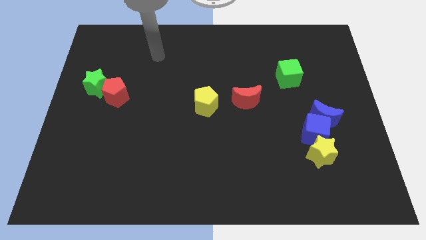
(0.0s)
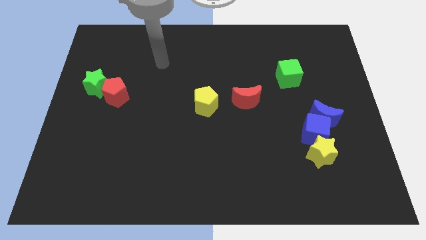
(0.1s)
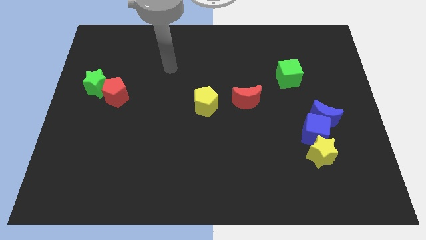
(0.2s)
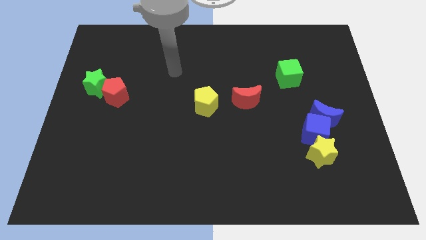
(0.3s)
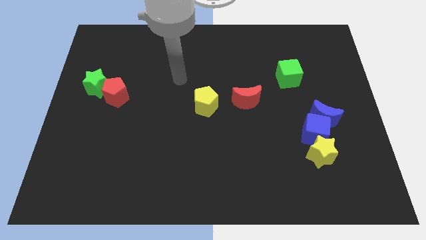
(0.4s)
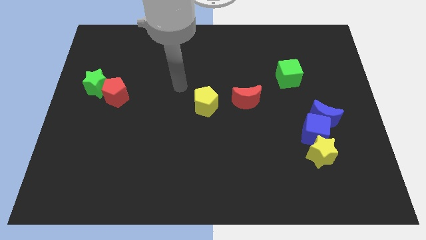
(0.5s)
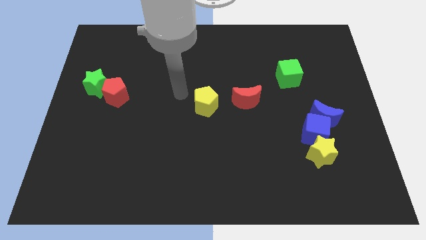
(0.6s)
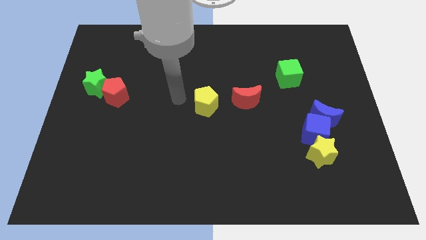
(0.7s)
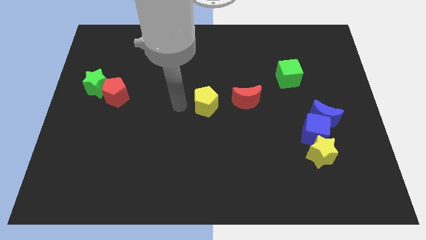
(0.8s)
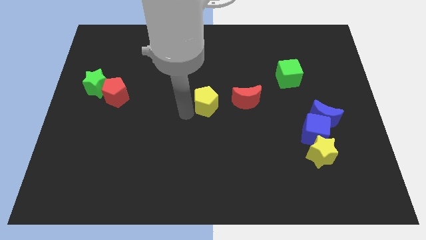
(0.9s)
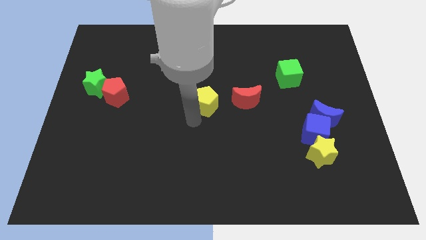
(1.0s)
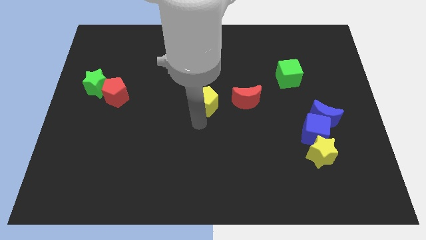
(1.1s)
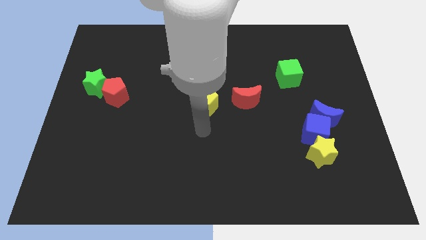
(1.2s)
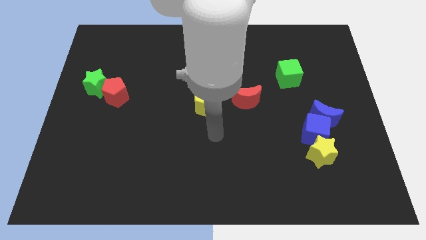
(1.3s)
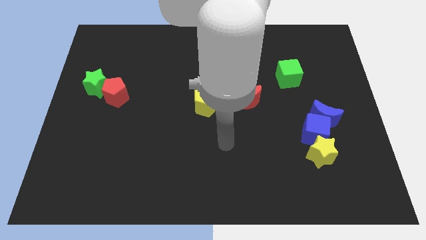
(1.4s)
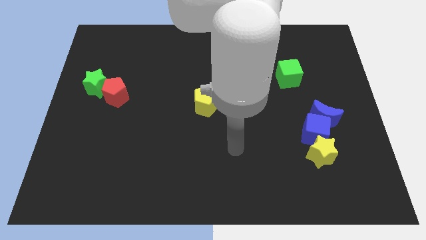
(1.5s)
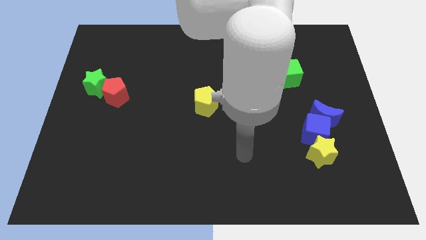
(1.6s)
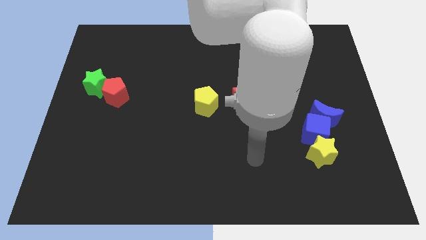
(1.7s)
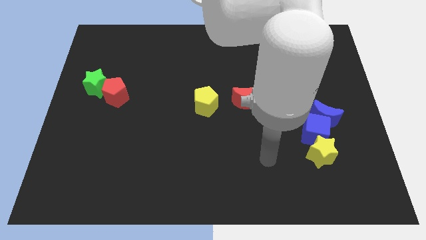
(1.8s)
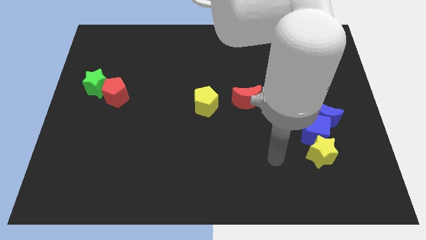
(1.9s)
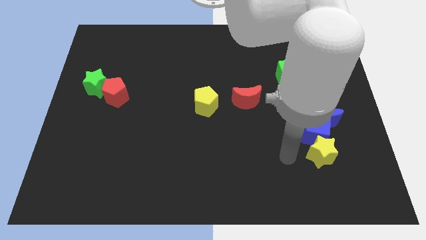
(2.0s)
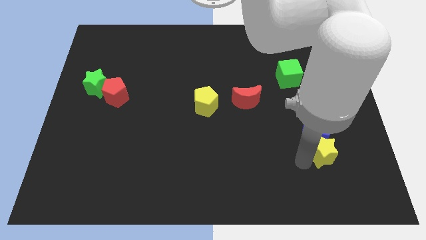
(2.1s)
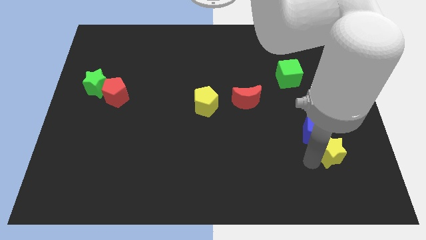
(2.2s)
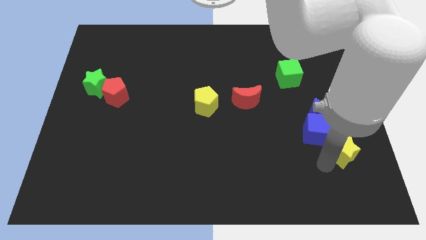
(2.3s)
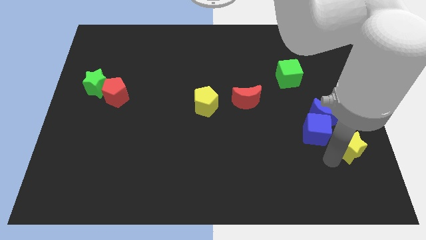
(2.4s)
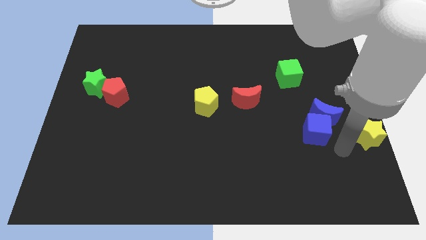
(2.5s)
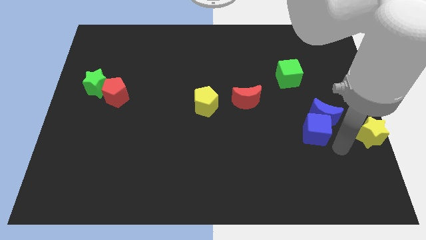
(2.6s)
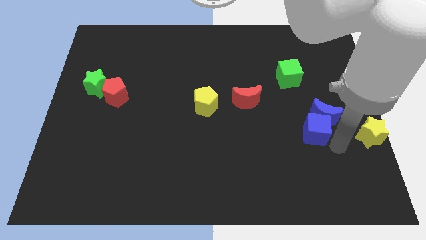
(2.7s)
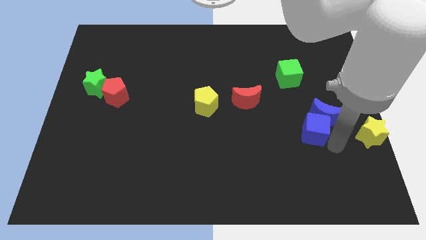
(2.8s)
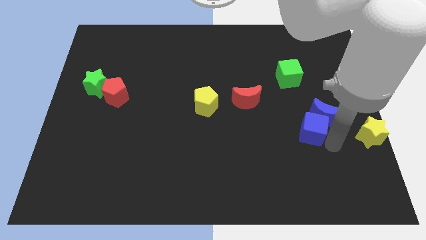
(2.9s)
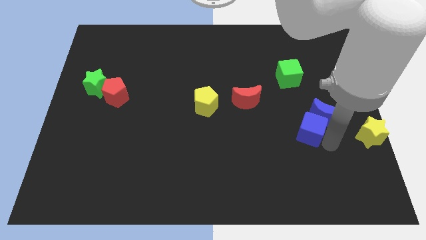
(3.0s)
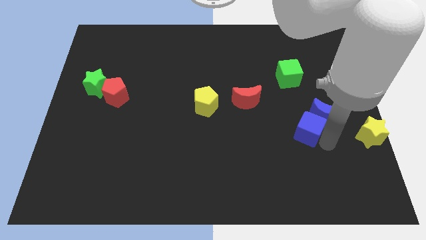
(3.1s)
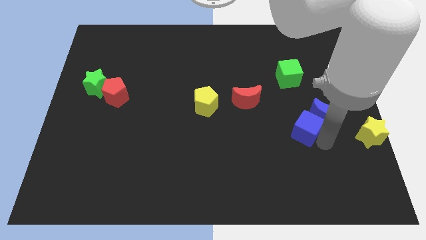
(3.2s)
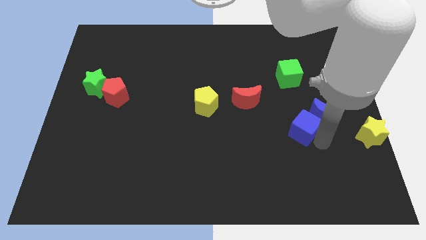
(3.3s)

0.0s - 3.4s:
separate the blue cube from the blue moon and yellow star

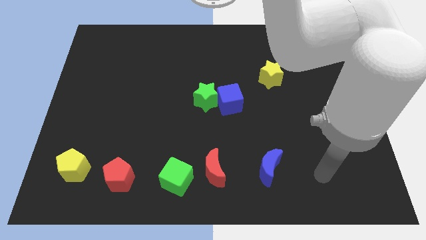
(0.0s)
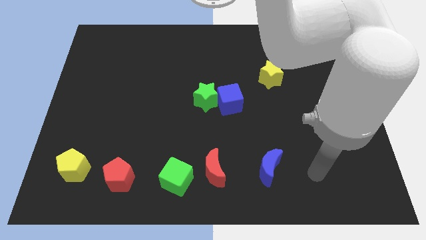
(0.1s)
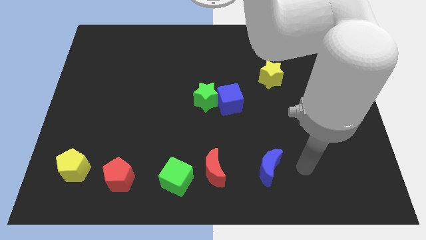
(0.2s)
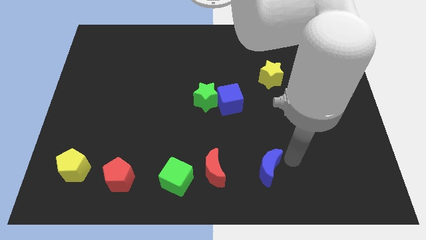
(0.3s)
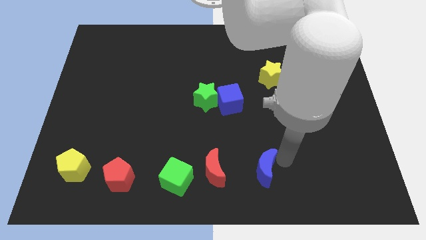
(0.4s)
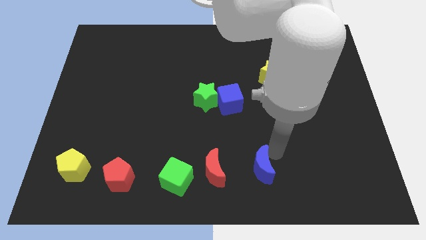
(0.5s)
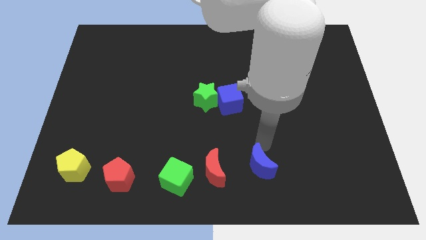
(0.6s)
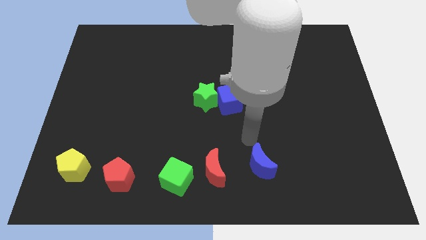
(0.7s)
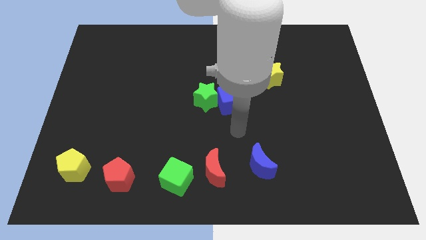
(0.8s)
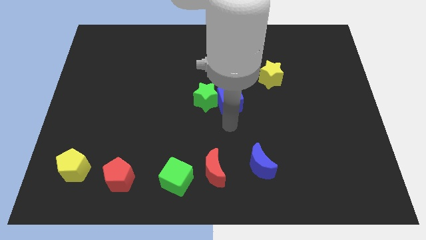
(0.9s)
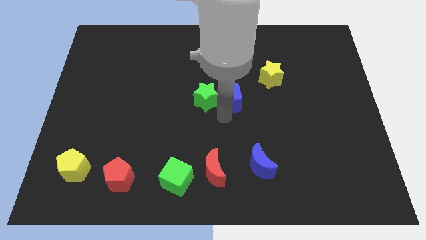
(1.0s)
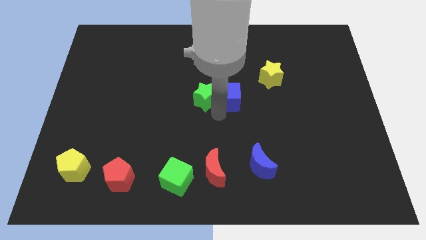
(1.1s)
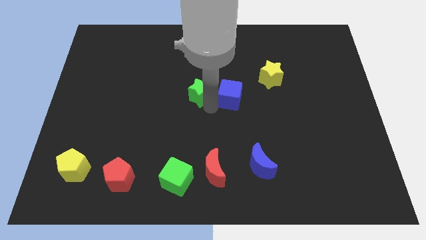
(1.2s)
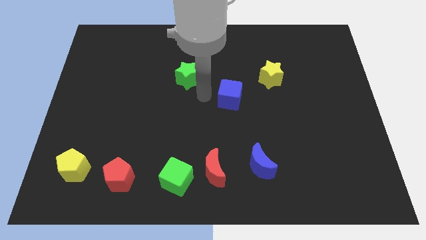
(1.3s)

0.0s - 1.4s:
pull the blue cube apart from the green star

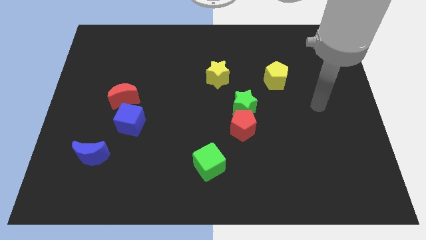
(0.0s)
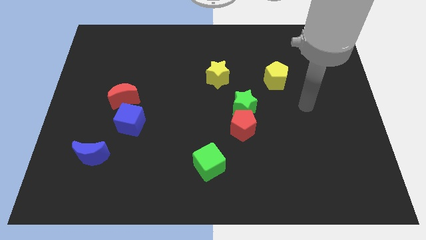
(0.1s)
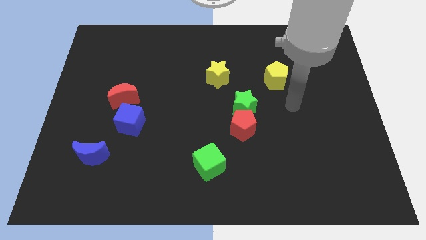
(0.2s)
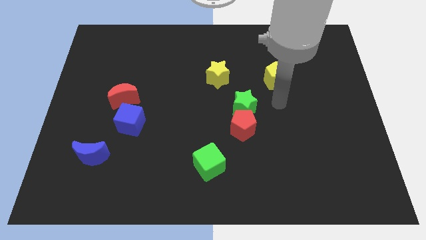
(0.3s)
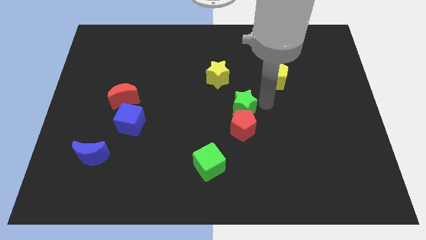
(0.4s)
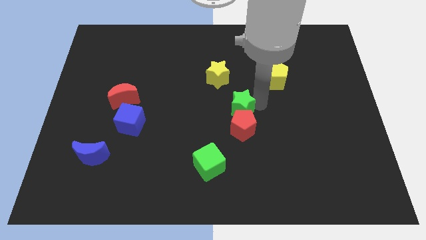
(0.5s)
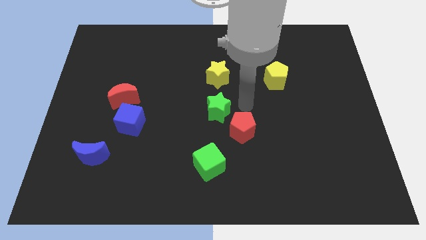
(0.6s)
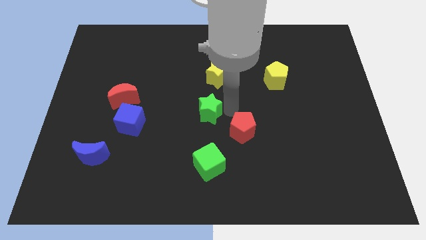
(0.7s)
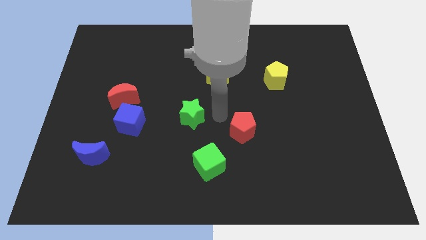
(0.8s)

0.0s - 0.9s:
pull the red pentagon apart from the green star

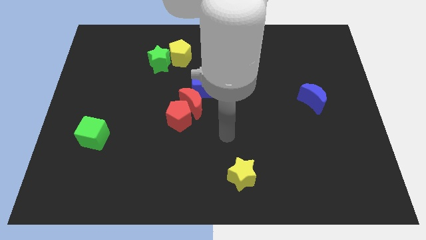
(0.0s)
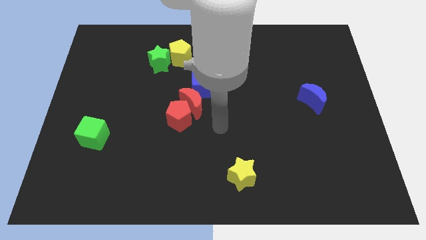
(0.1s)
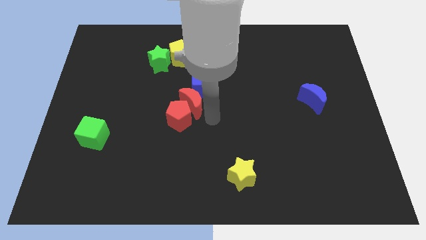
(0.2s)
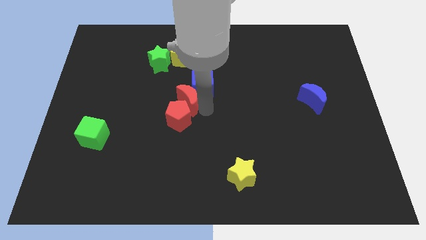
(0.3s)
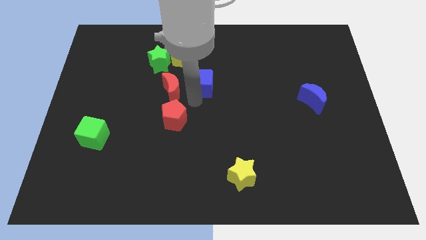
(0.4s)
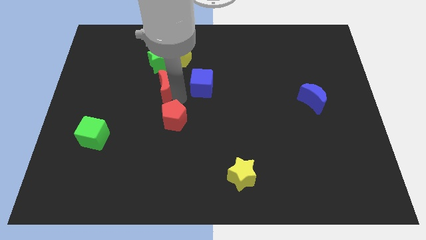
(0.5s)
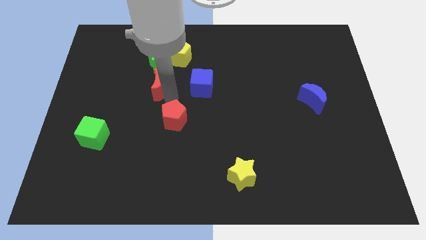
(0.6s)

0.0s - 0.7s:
separate the red pentagon from the red moon

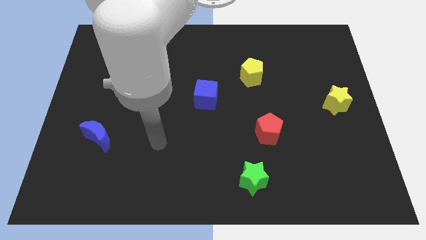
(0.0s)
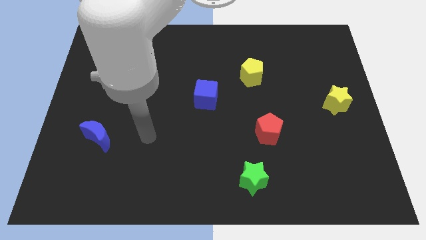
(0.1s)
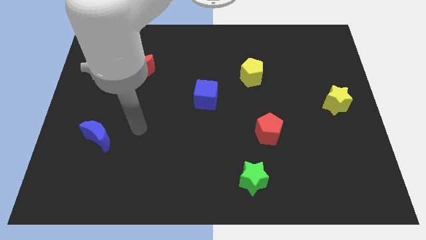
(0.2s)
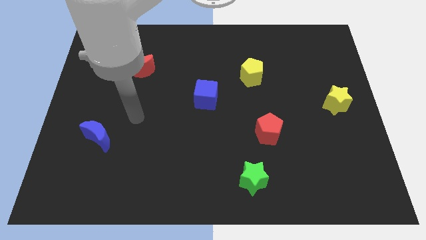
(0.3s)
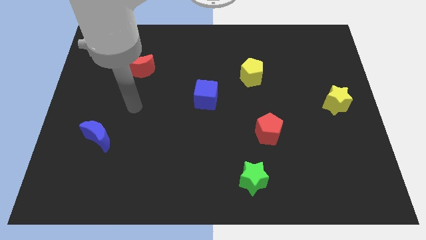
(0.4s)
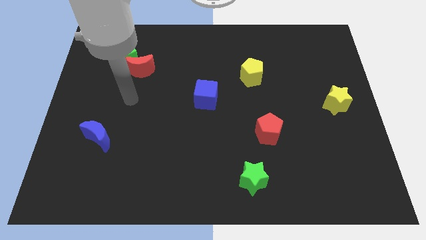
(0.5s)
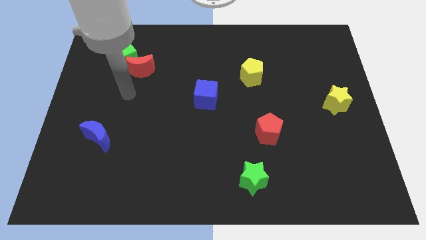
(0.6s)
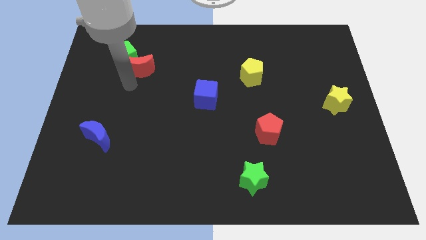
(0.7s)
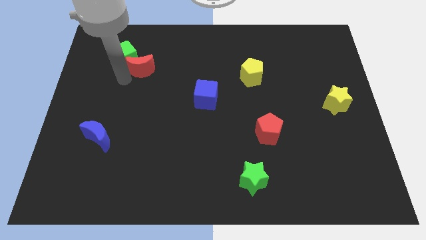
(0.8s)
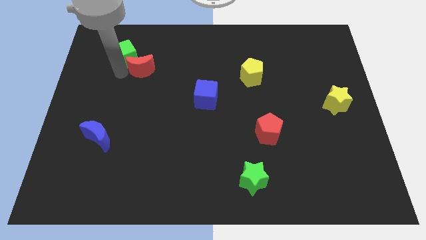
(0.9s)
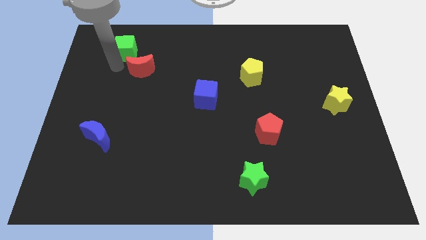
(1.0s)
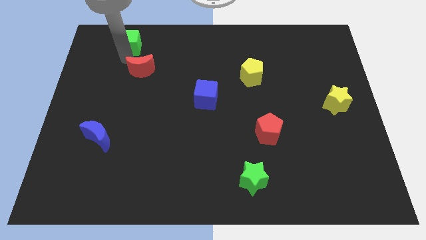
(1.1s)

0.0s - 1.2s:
separate the red moon from the green cube

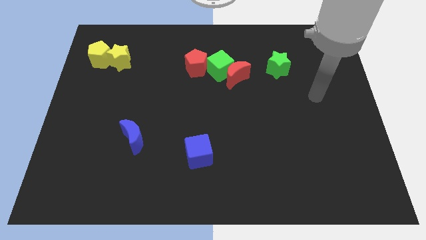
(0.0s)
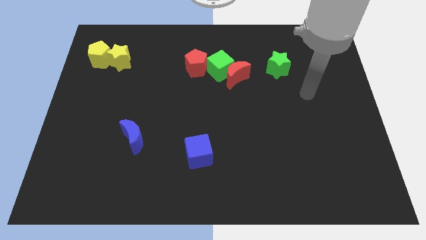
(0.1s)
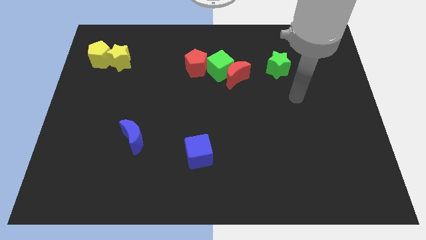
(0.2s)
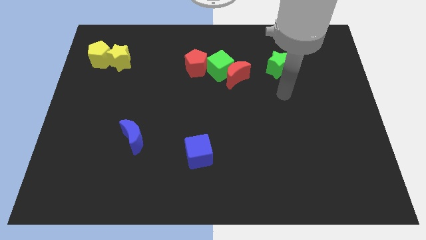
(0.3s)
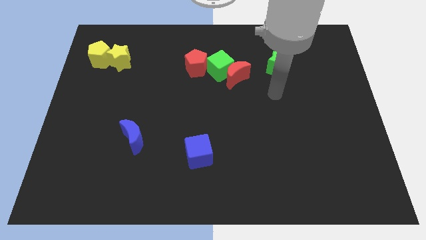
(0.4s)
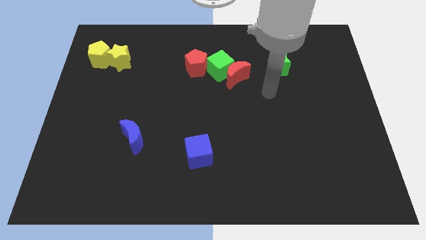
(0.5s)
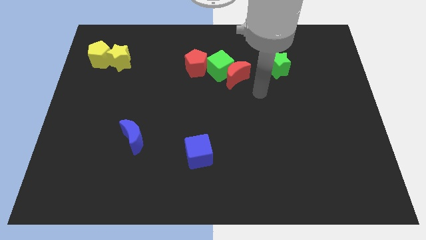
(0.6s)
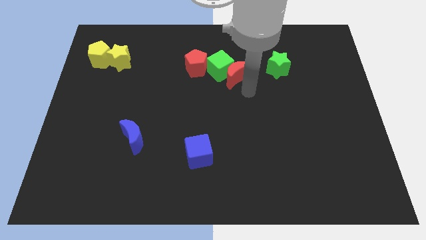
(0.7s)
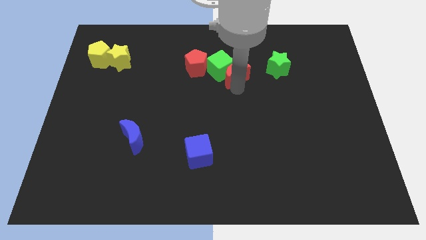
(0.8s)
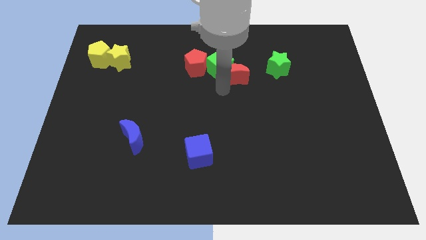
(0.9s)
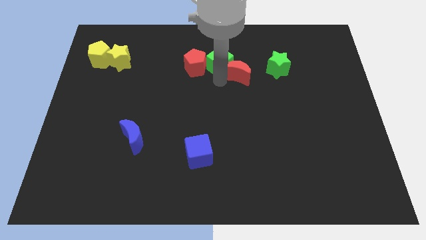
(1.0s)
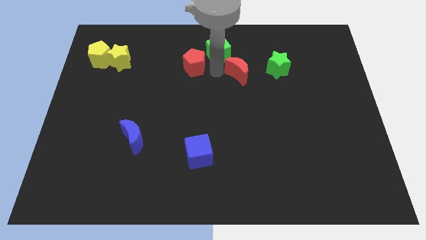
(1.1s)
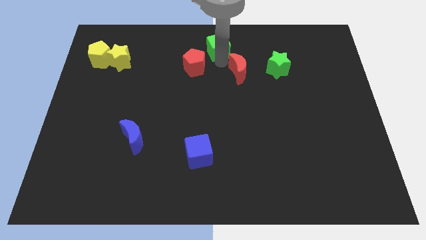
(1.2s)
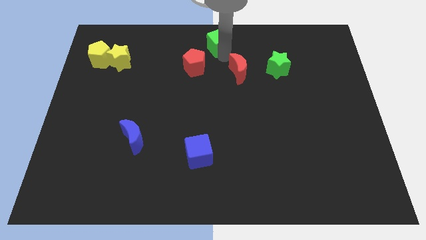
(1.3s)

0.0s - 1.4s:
pull the red moon apart from the green cube

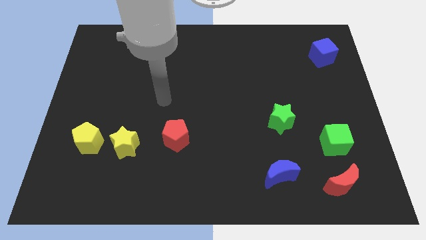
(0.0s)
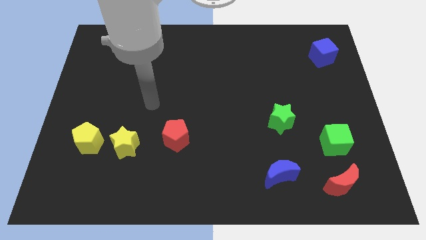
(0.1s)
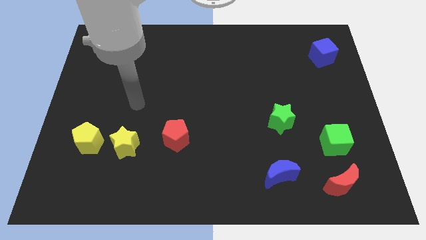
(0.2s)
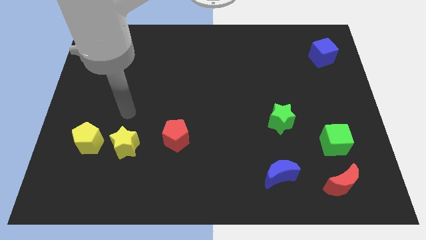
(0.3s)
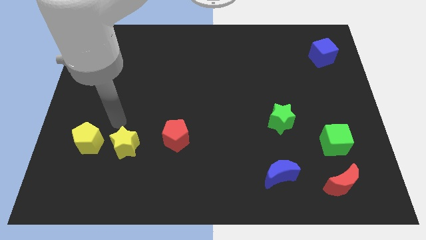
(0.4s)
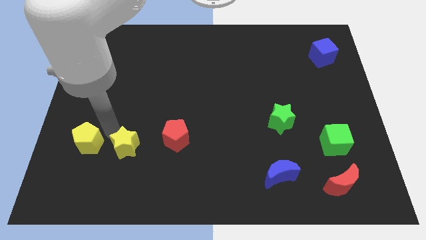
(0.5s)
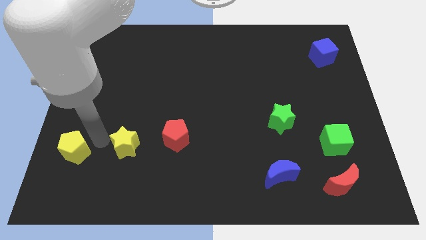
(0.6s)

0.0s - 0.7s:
move the yellow star away from the yellow pentagon
